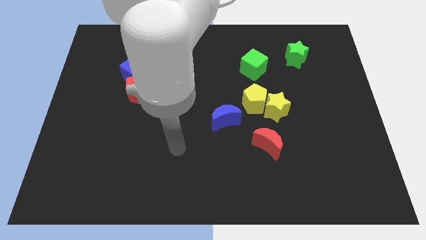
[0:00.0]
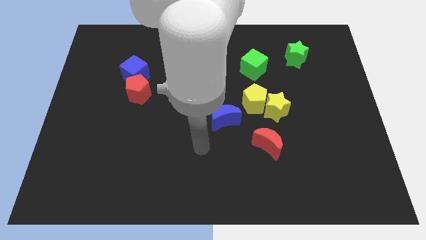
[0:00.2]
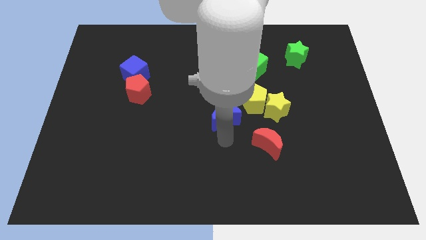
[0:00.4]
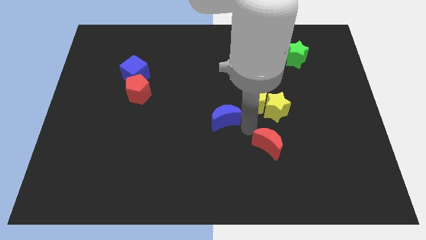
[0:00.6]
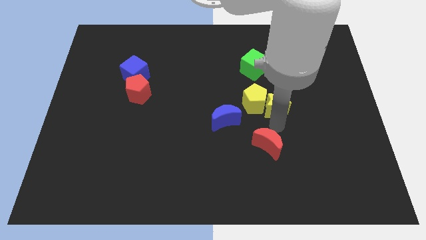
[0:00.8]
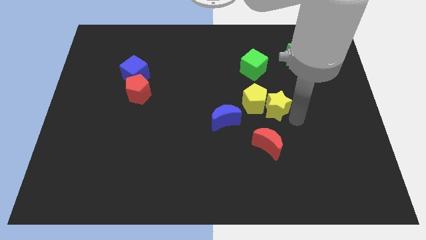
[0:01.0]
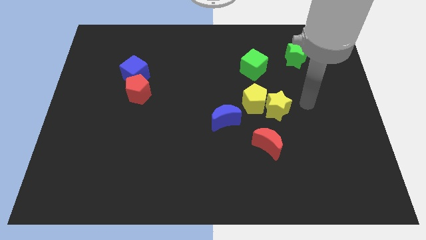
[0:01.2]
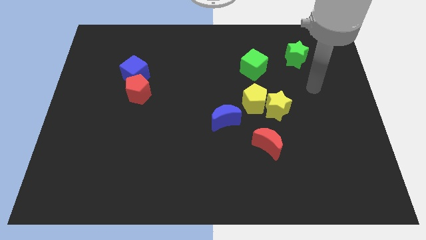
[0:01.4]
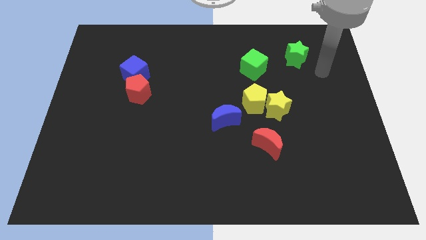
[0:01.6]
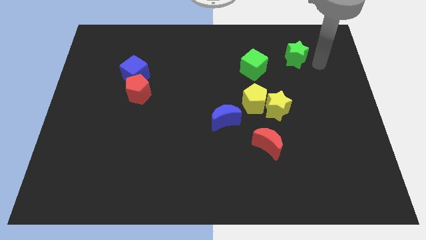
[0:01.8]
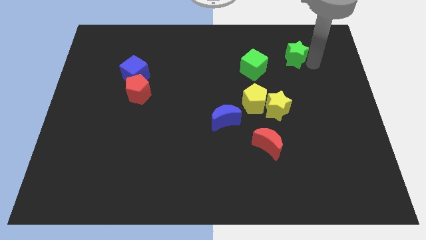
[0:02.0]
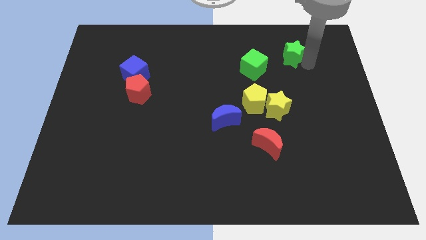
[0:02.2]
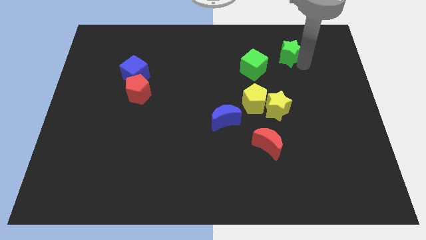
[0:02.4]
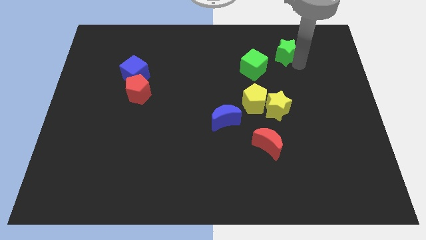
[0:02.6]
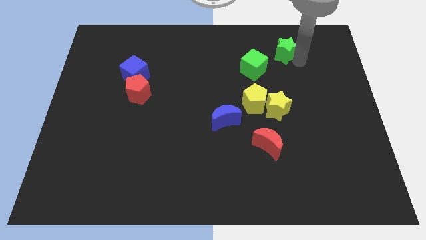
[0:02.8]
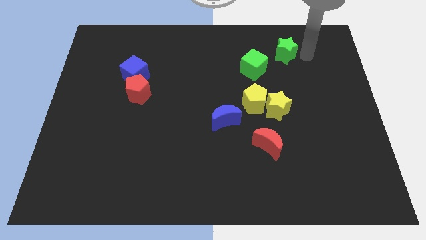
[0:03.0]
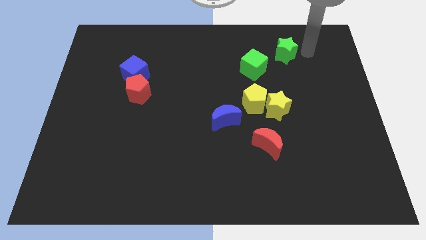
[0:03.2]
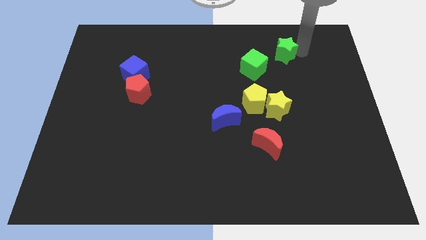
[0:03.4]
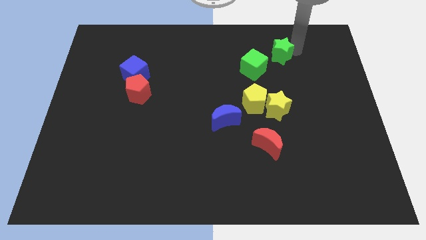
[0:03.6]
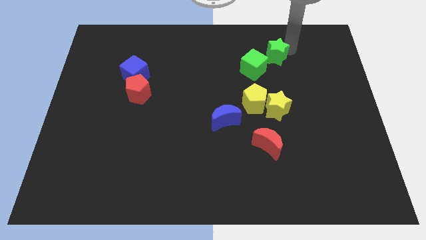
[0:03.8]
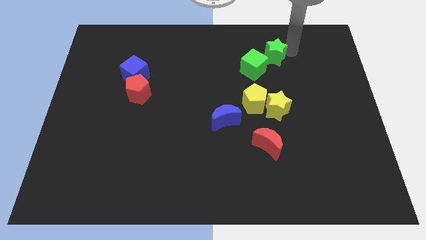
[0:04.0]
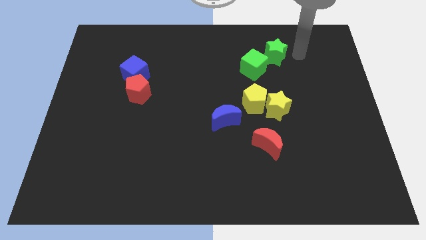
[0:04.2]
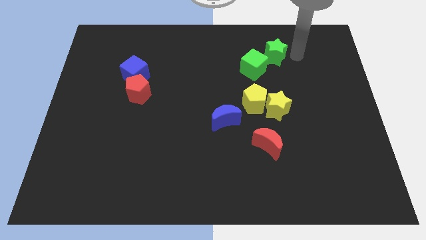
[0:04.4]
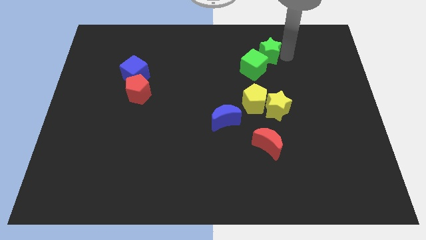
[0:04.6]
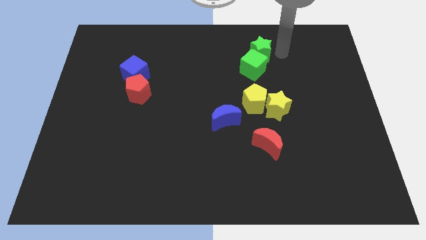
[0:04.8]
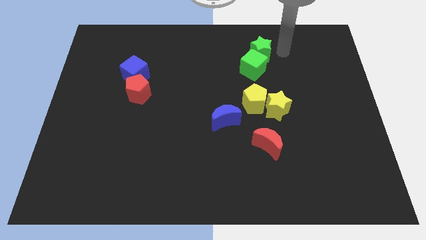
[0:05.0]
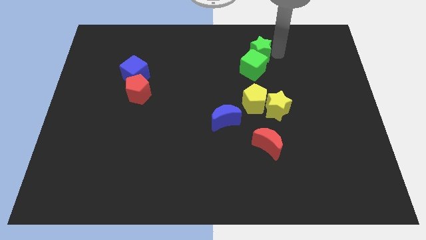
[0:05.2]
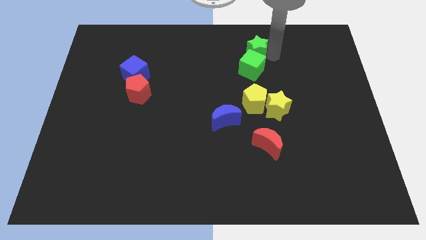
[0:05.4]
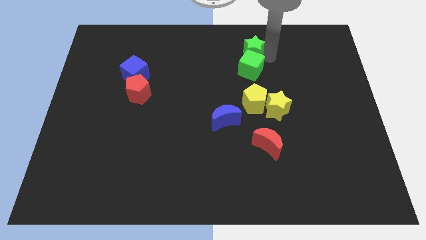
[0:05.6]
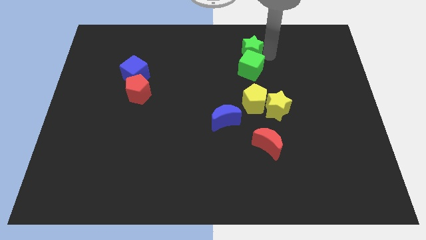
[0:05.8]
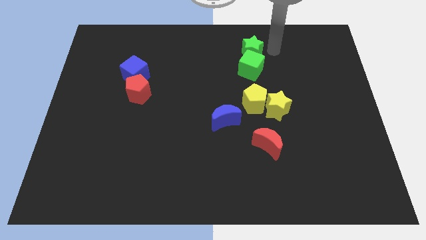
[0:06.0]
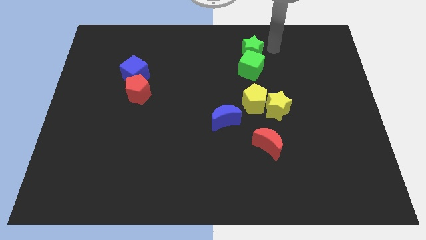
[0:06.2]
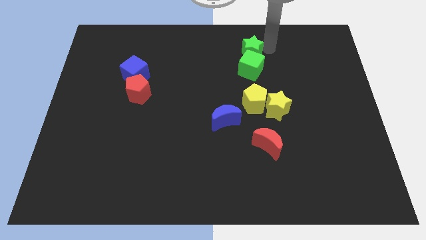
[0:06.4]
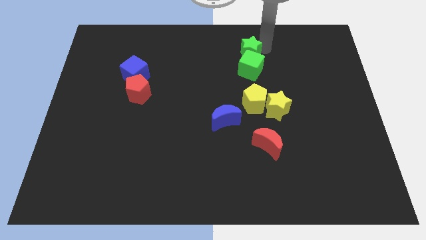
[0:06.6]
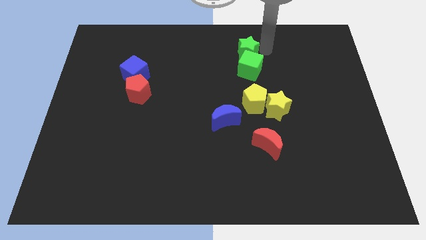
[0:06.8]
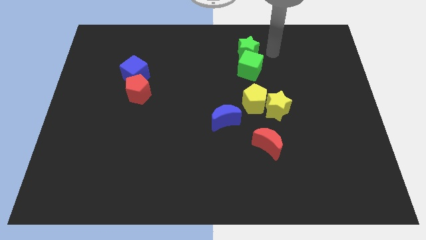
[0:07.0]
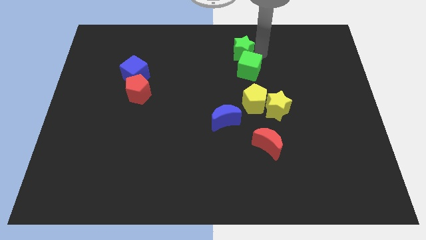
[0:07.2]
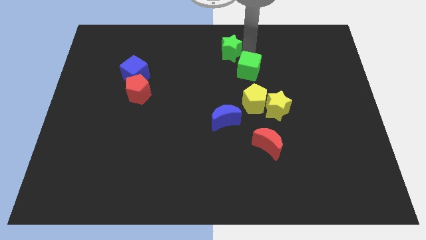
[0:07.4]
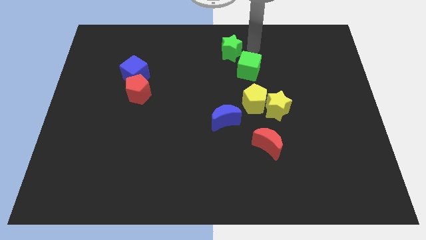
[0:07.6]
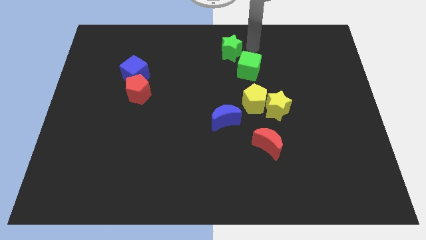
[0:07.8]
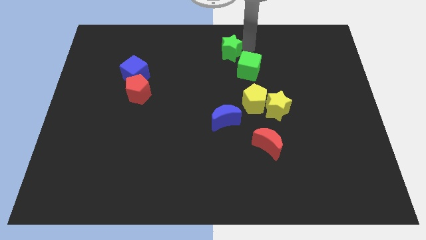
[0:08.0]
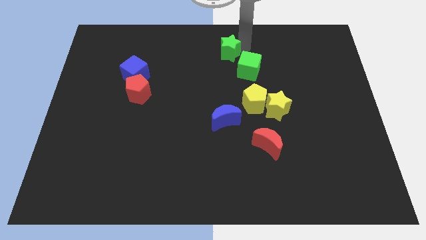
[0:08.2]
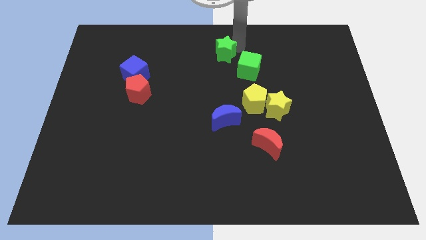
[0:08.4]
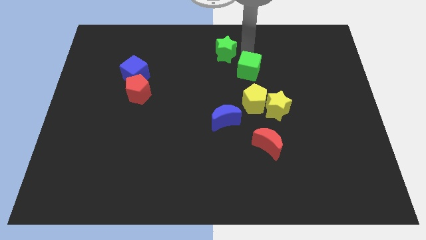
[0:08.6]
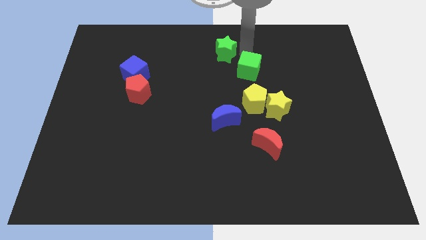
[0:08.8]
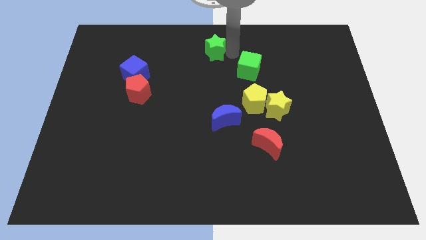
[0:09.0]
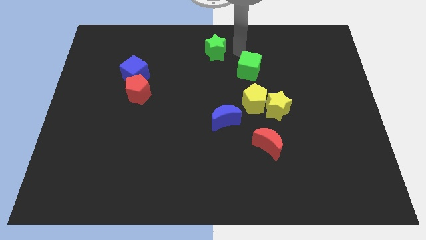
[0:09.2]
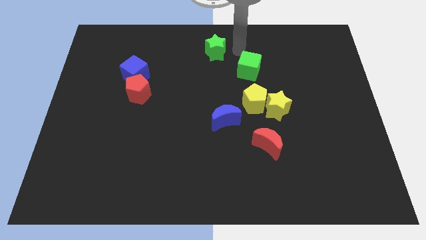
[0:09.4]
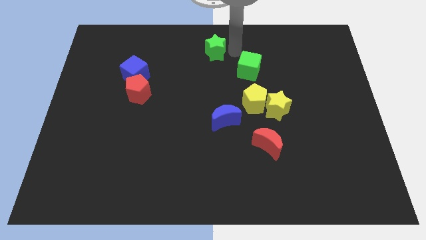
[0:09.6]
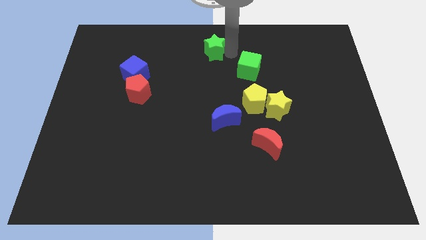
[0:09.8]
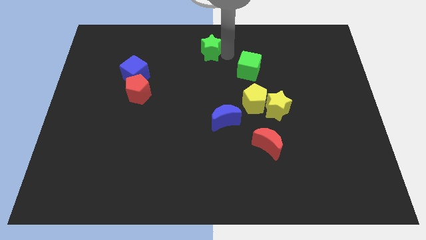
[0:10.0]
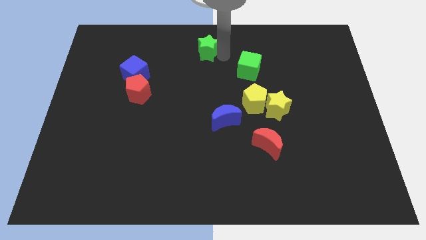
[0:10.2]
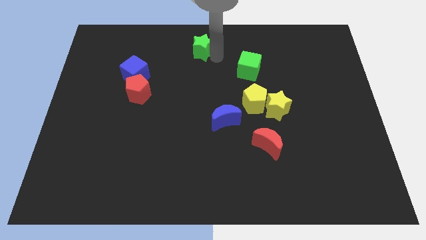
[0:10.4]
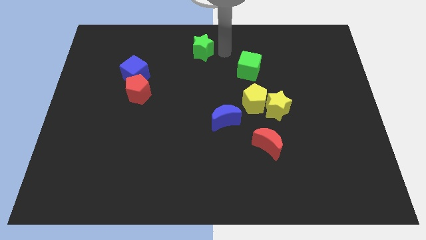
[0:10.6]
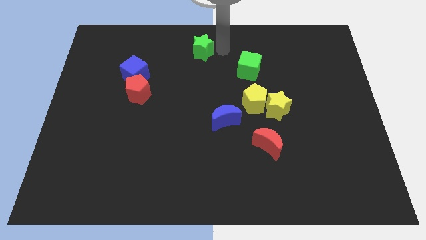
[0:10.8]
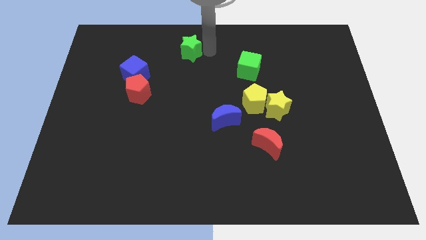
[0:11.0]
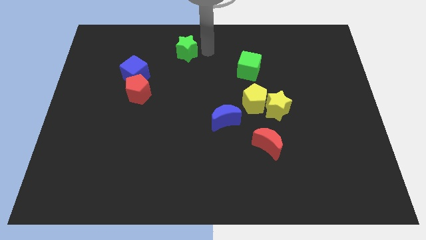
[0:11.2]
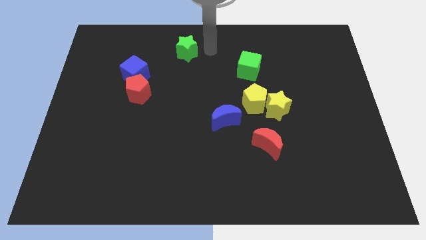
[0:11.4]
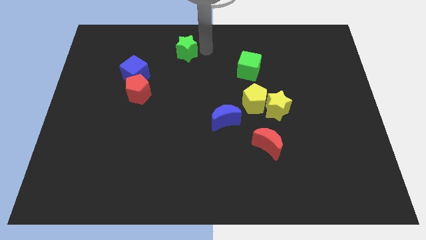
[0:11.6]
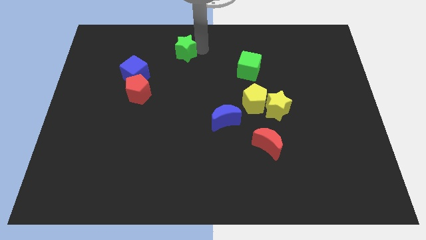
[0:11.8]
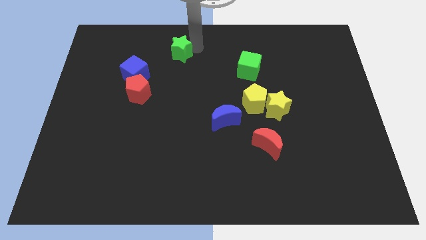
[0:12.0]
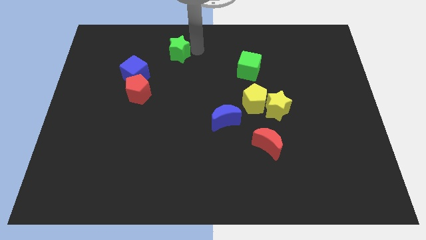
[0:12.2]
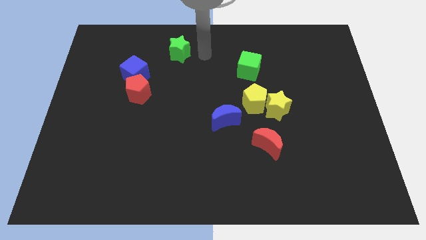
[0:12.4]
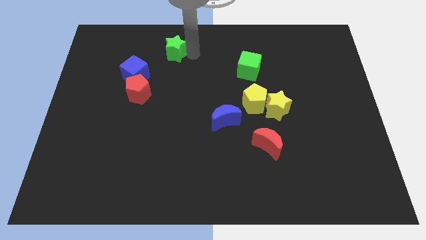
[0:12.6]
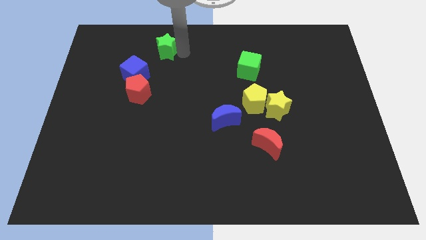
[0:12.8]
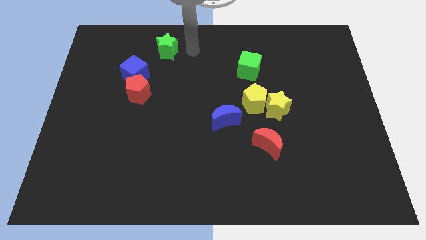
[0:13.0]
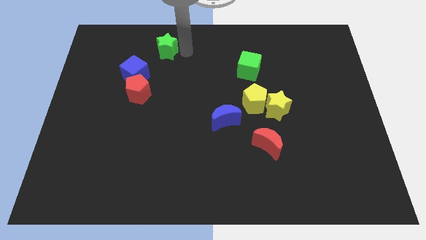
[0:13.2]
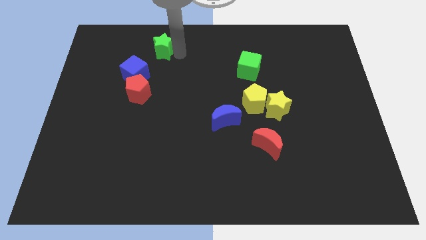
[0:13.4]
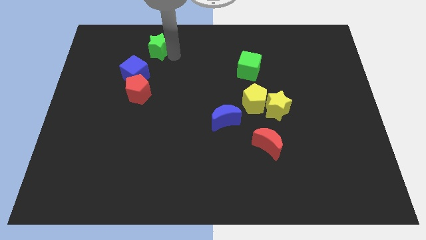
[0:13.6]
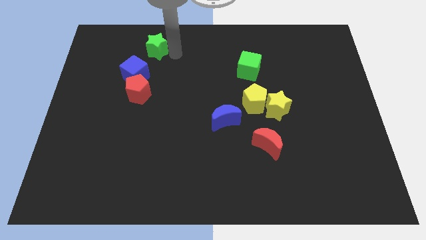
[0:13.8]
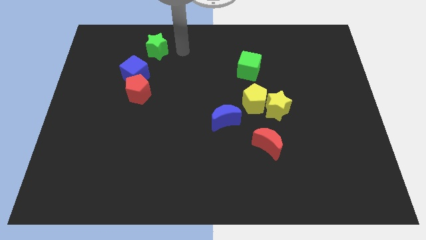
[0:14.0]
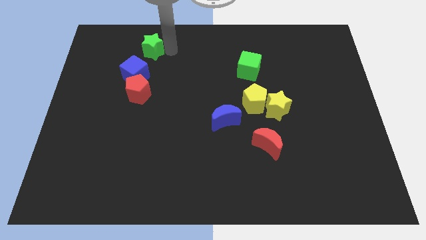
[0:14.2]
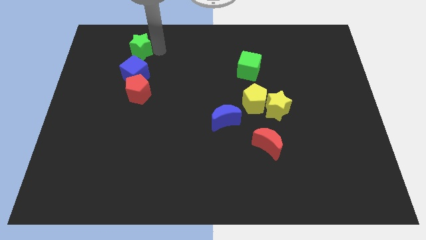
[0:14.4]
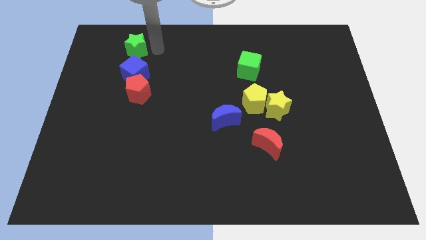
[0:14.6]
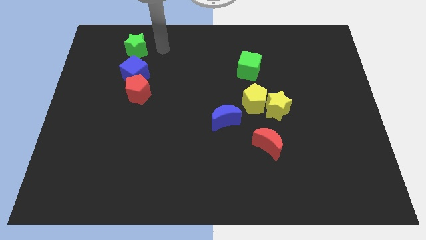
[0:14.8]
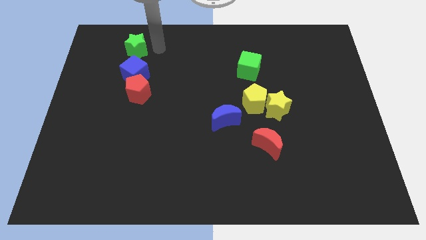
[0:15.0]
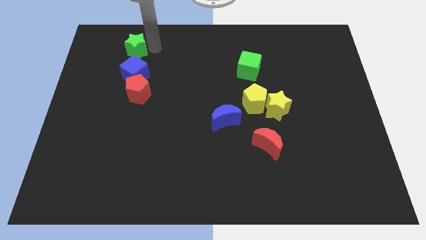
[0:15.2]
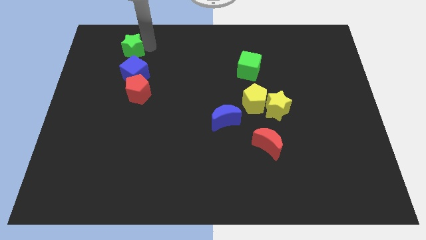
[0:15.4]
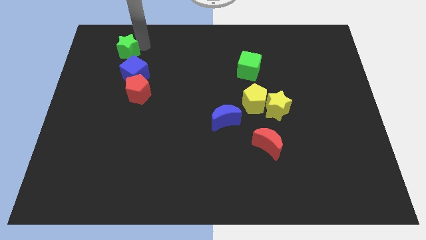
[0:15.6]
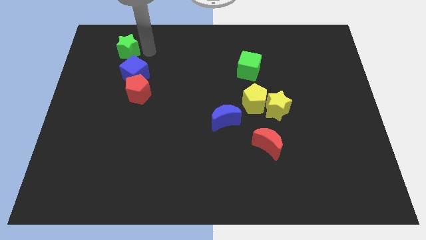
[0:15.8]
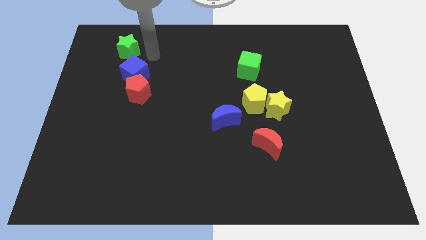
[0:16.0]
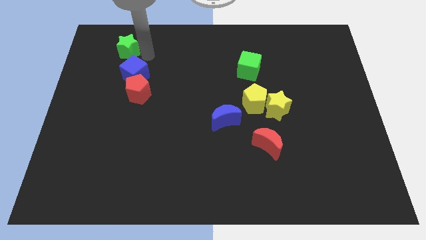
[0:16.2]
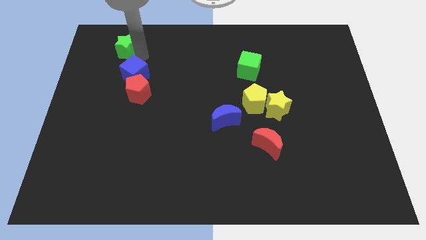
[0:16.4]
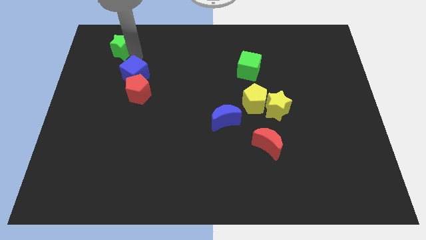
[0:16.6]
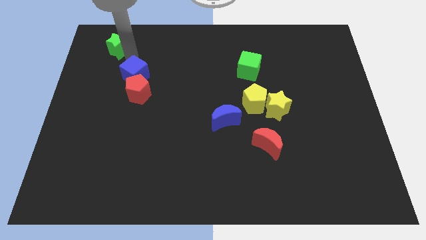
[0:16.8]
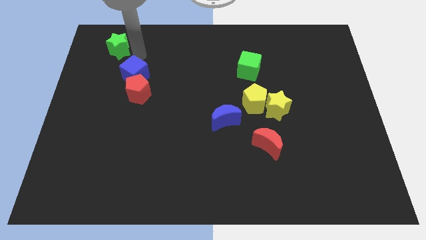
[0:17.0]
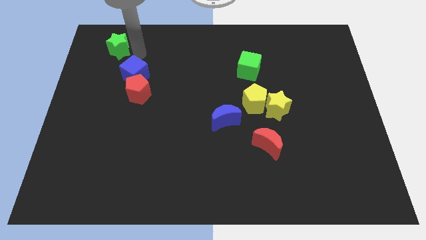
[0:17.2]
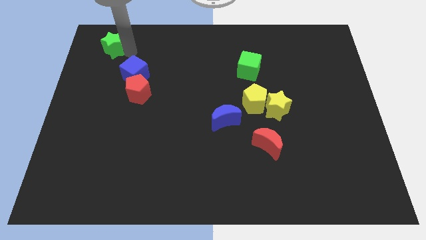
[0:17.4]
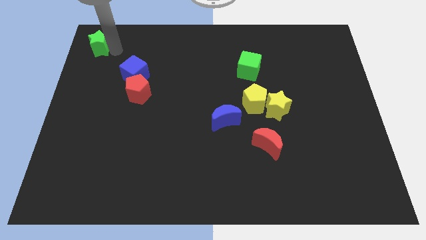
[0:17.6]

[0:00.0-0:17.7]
put the green star to the top left of the board
